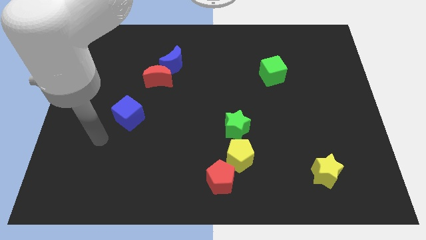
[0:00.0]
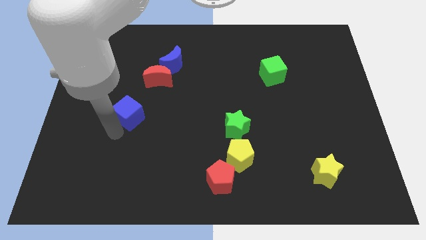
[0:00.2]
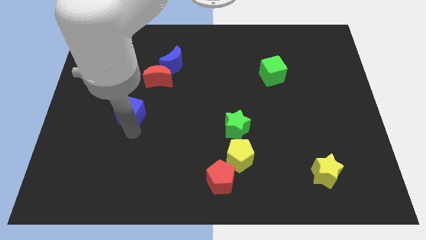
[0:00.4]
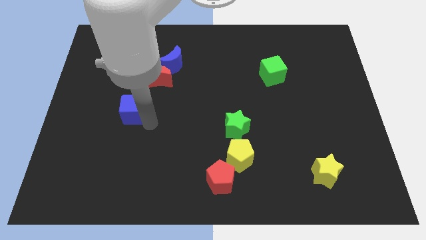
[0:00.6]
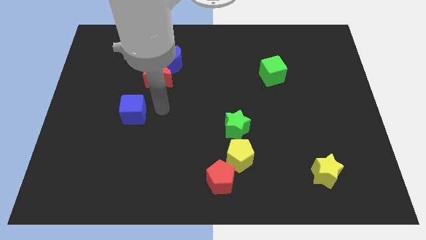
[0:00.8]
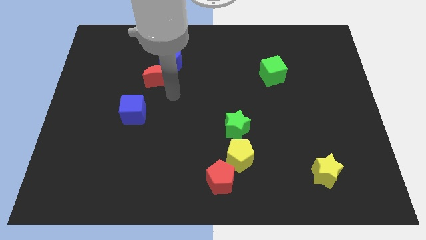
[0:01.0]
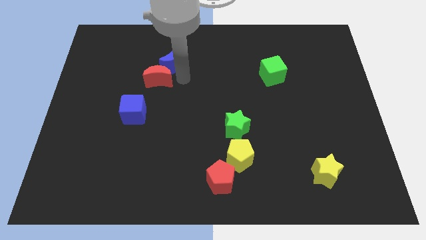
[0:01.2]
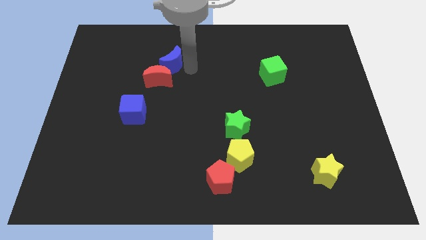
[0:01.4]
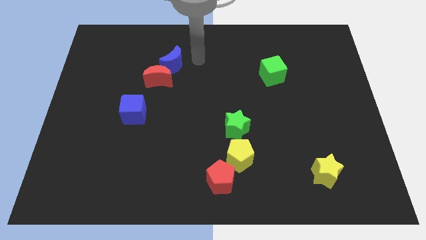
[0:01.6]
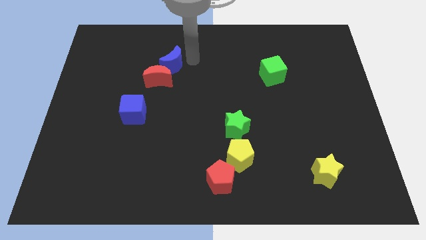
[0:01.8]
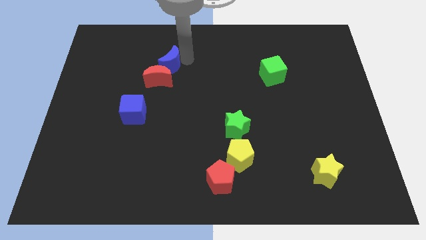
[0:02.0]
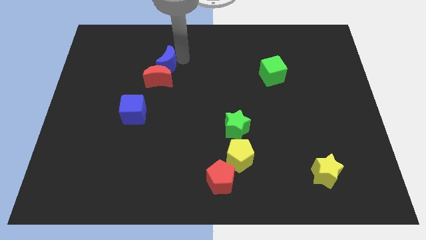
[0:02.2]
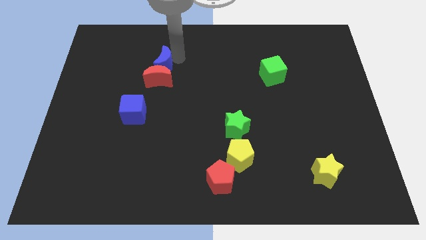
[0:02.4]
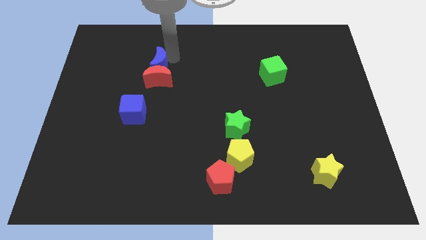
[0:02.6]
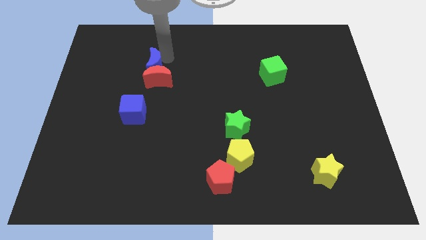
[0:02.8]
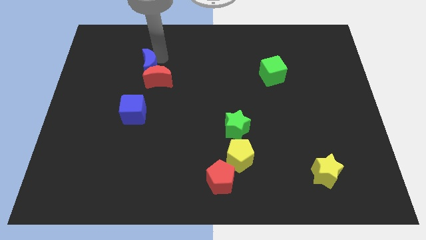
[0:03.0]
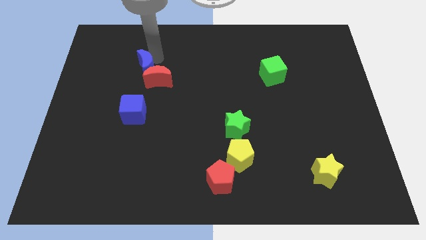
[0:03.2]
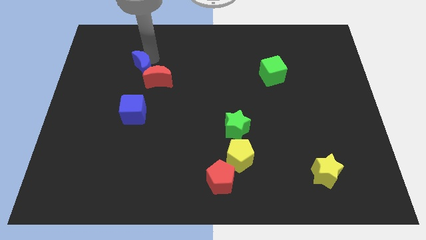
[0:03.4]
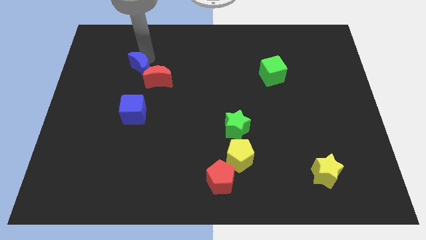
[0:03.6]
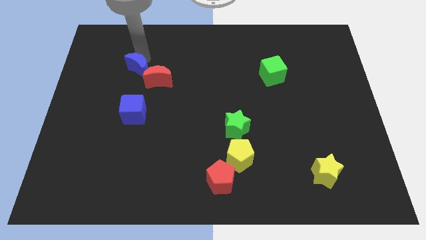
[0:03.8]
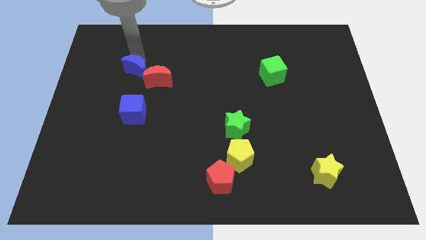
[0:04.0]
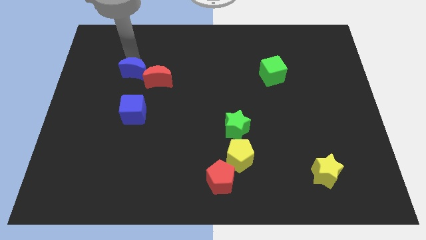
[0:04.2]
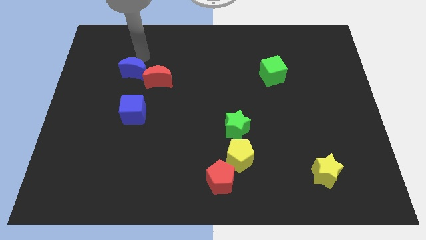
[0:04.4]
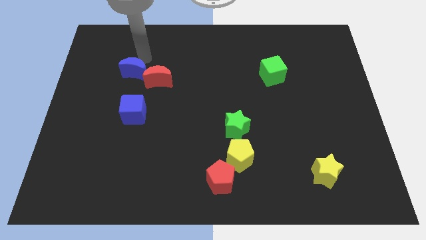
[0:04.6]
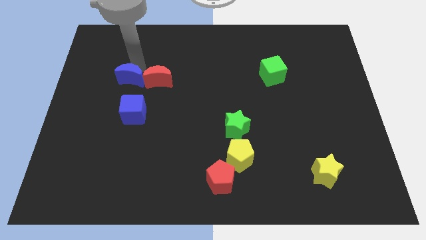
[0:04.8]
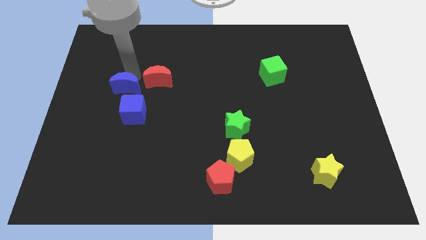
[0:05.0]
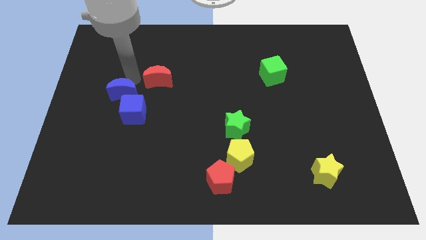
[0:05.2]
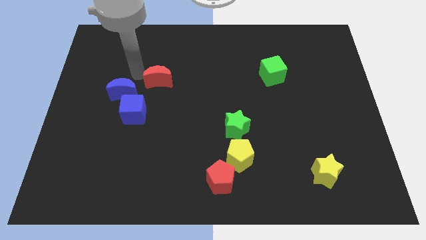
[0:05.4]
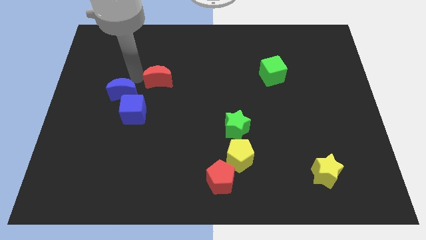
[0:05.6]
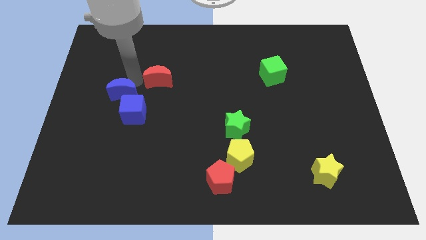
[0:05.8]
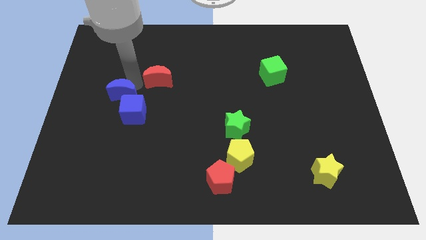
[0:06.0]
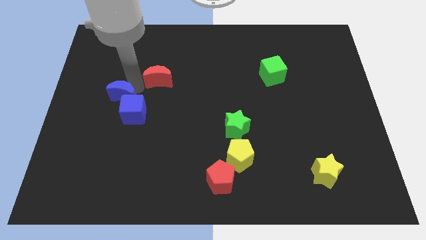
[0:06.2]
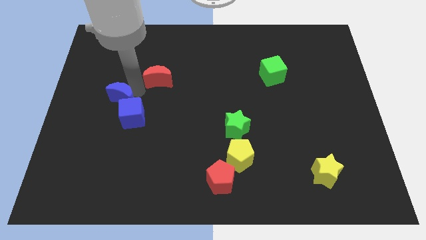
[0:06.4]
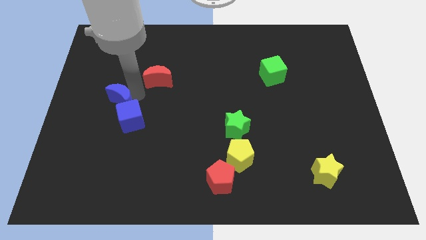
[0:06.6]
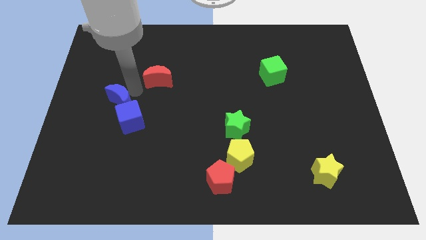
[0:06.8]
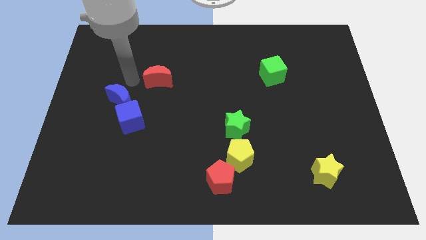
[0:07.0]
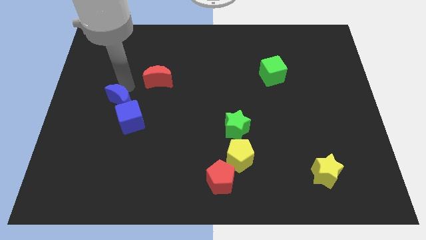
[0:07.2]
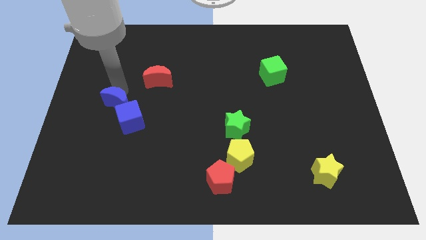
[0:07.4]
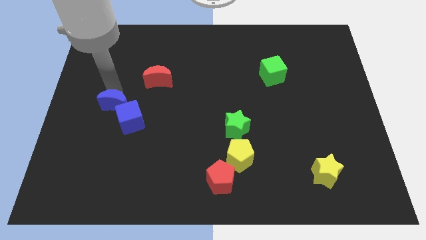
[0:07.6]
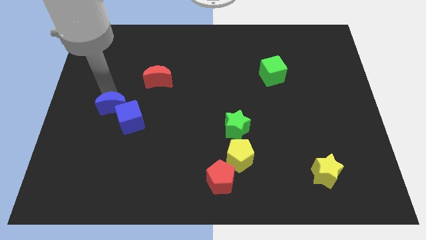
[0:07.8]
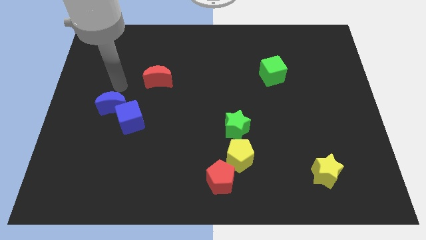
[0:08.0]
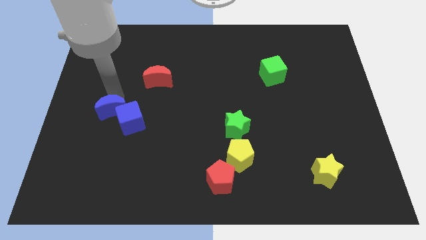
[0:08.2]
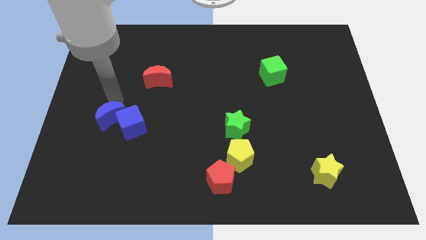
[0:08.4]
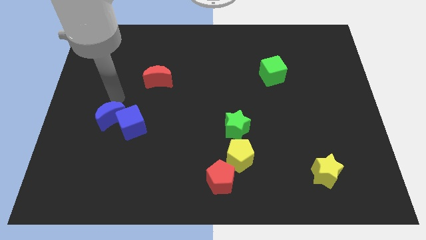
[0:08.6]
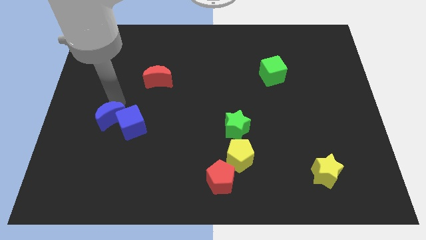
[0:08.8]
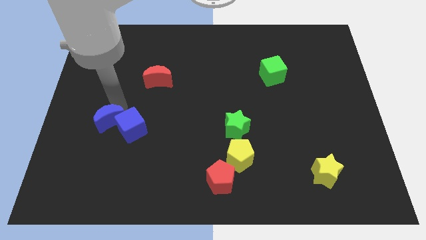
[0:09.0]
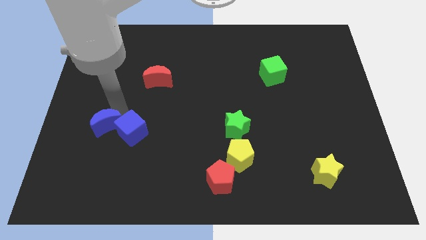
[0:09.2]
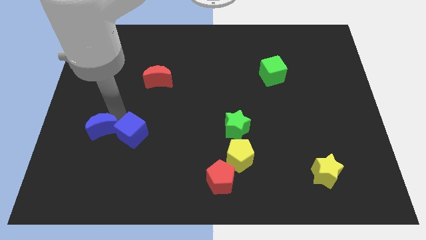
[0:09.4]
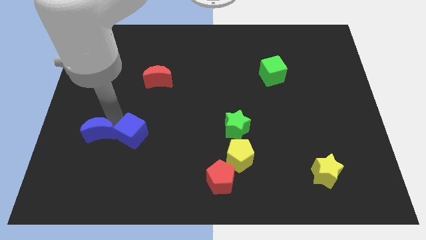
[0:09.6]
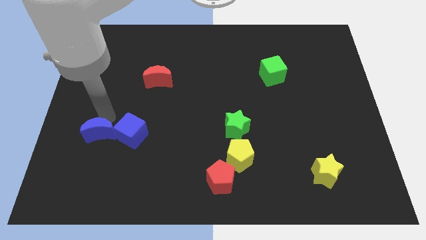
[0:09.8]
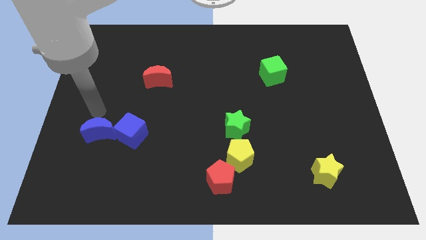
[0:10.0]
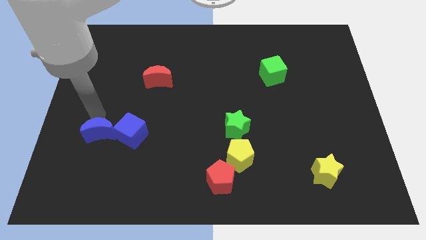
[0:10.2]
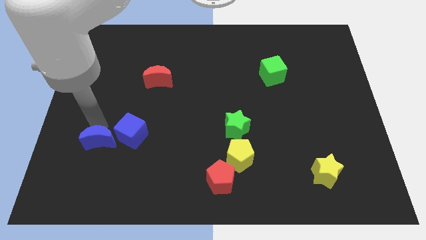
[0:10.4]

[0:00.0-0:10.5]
put the blue moon diagonally down and to the left of the blue cube

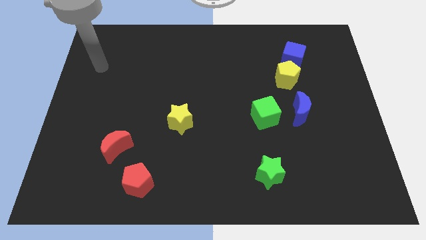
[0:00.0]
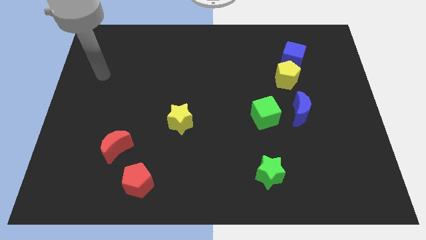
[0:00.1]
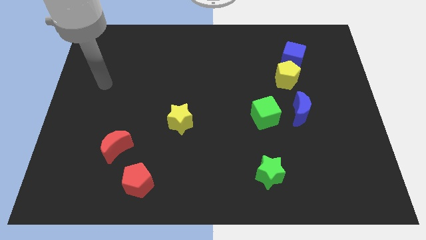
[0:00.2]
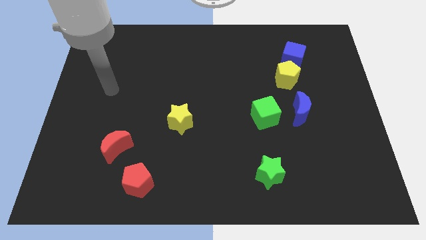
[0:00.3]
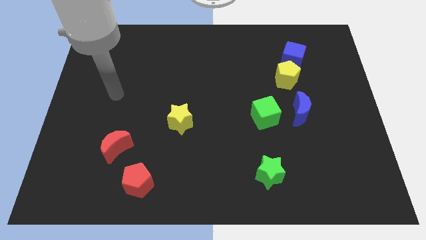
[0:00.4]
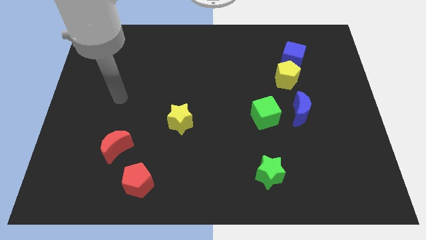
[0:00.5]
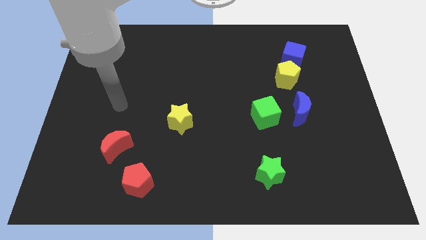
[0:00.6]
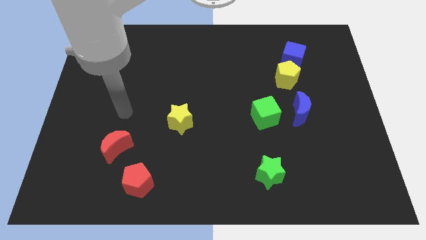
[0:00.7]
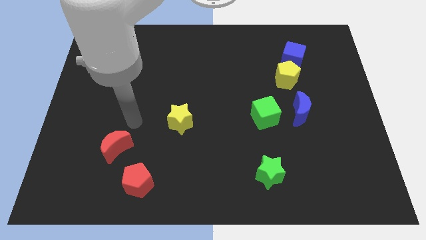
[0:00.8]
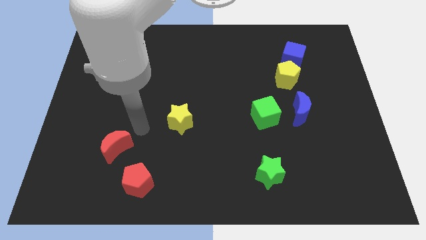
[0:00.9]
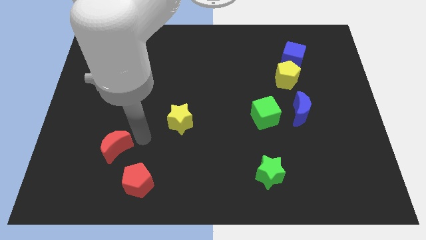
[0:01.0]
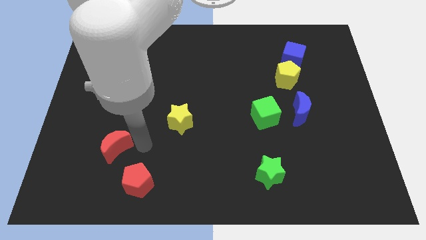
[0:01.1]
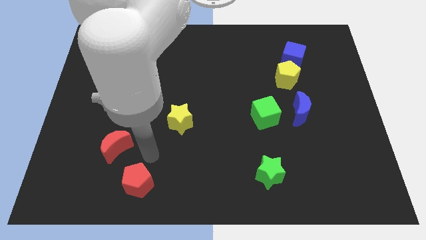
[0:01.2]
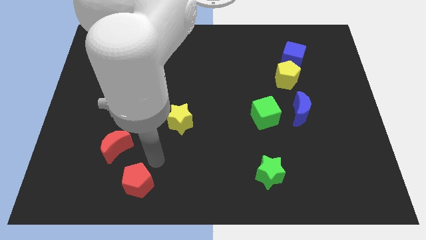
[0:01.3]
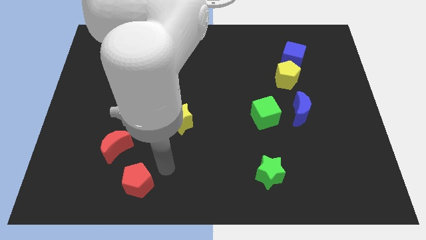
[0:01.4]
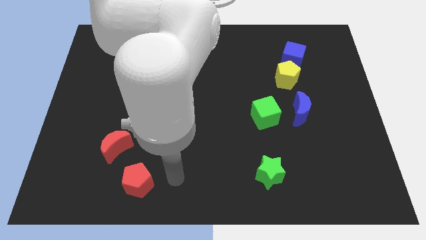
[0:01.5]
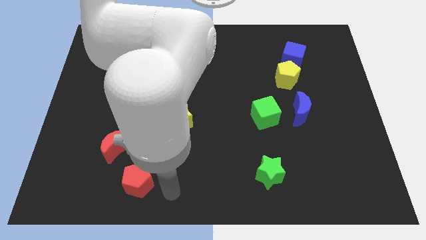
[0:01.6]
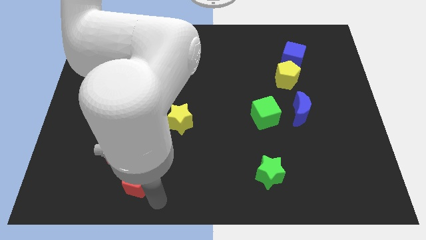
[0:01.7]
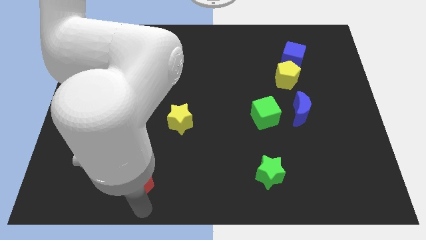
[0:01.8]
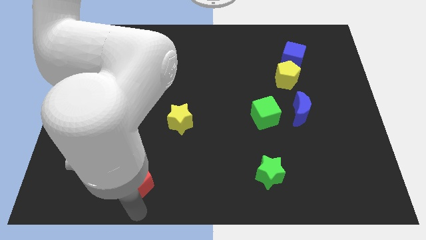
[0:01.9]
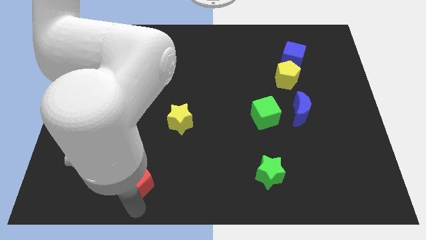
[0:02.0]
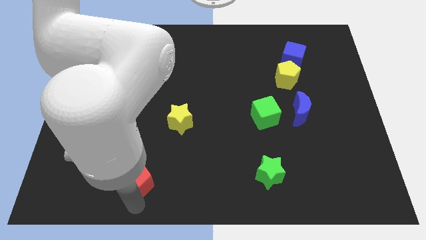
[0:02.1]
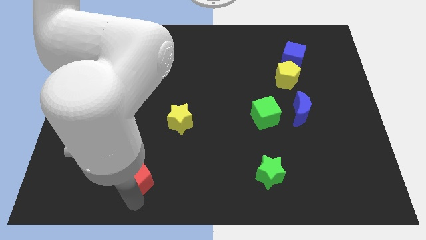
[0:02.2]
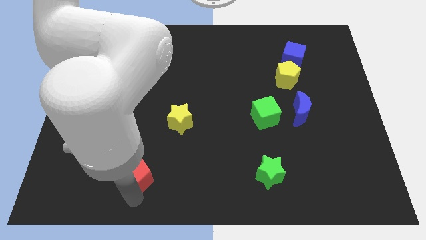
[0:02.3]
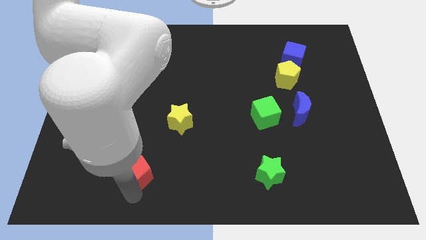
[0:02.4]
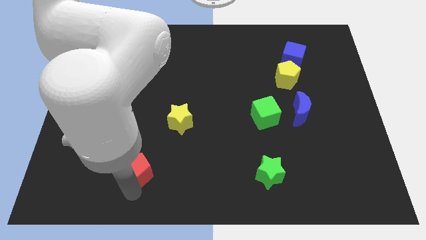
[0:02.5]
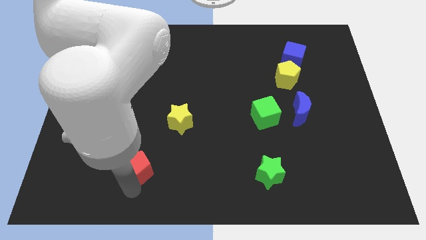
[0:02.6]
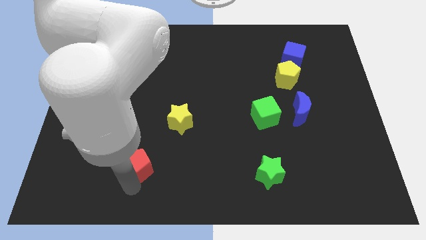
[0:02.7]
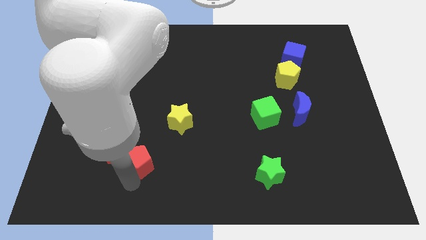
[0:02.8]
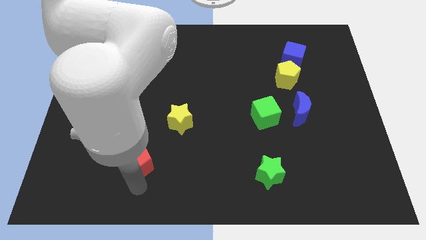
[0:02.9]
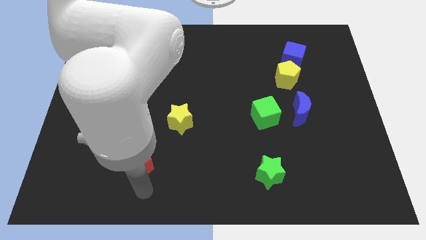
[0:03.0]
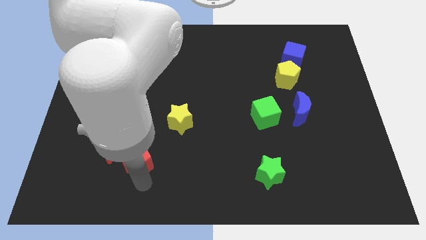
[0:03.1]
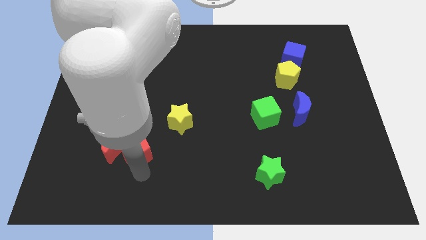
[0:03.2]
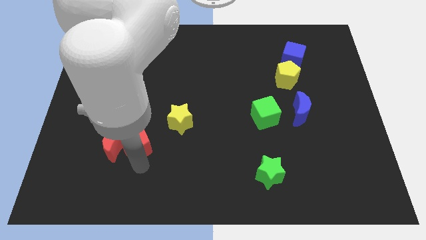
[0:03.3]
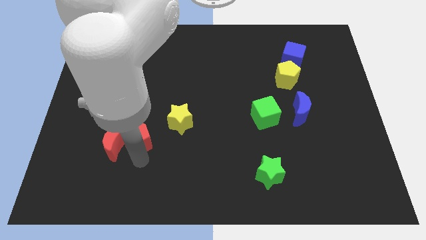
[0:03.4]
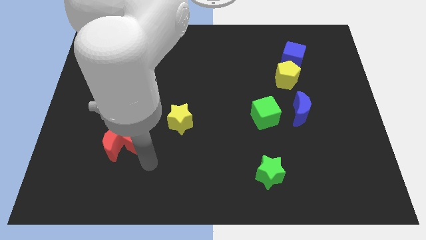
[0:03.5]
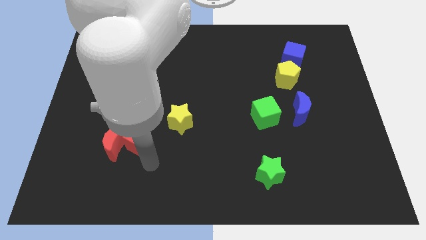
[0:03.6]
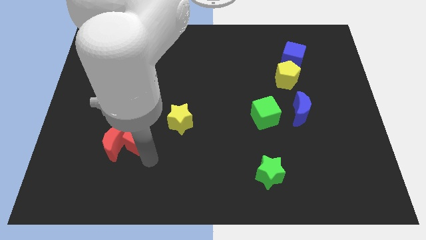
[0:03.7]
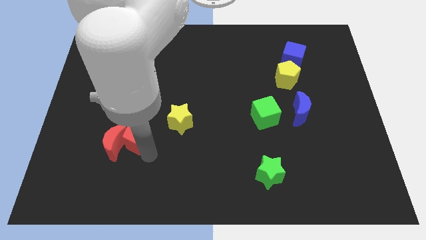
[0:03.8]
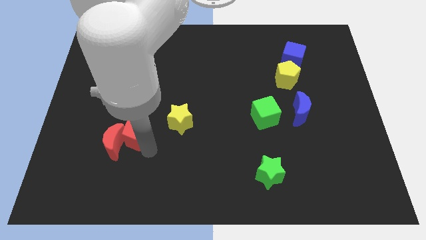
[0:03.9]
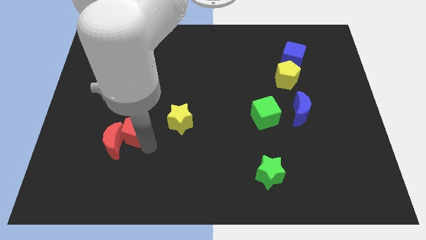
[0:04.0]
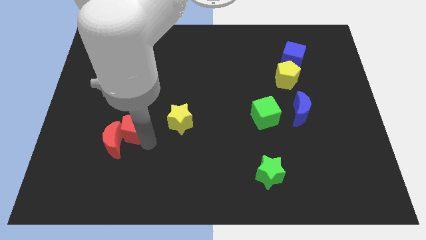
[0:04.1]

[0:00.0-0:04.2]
push the red pentagon to the top side of the red moon
